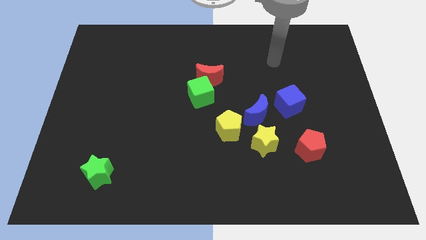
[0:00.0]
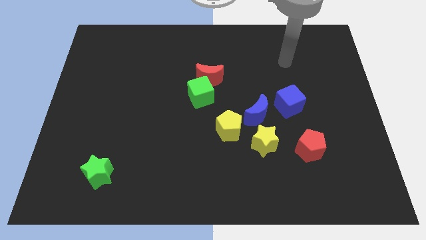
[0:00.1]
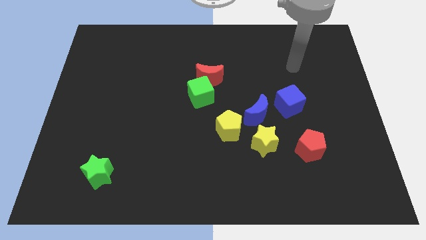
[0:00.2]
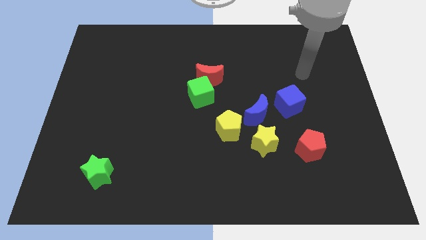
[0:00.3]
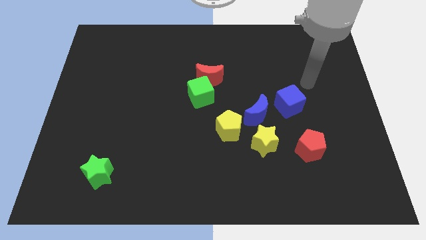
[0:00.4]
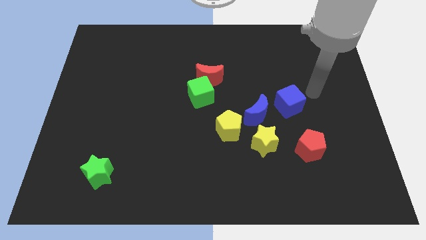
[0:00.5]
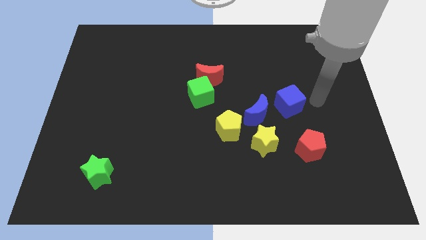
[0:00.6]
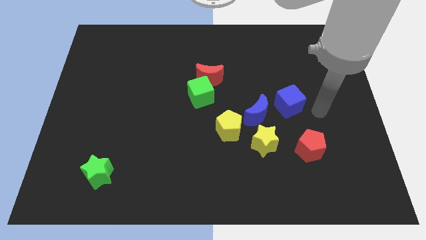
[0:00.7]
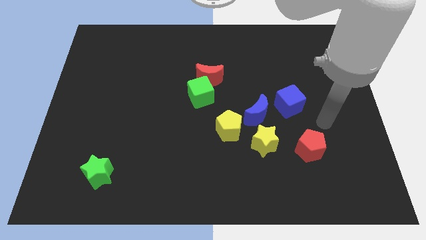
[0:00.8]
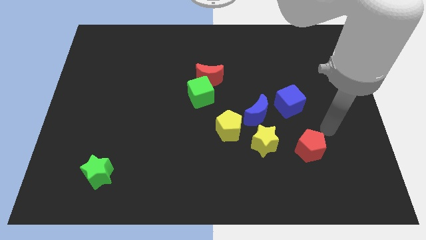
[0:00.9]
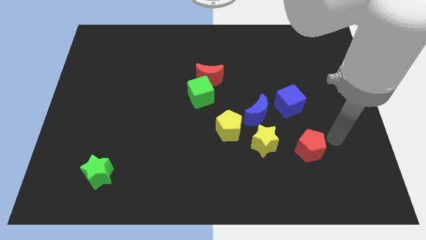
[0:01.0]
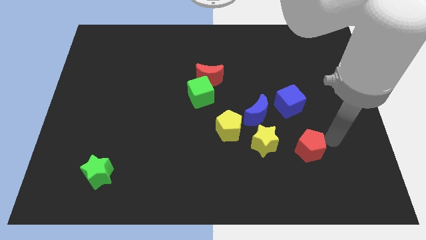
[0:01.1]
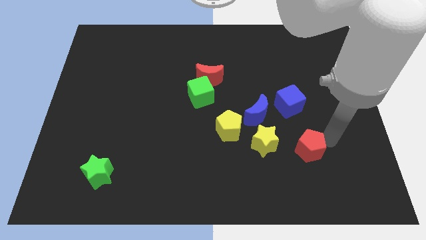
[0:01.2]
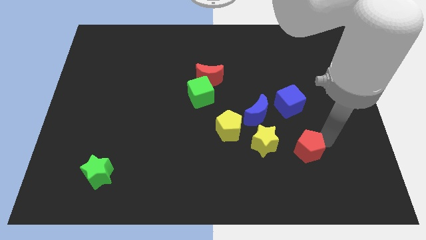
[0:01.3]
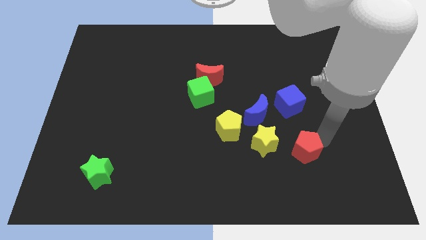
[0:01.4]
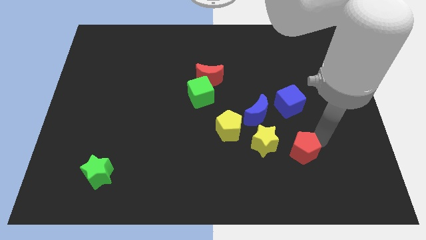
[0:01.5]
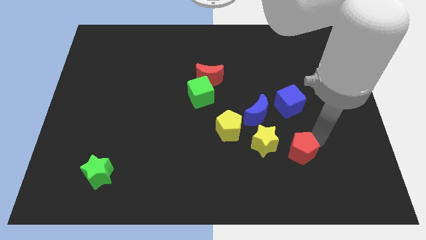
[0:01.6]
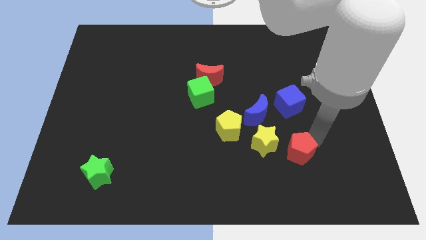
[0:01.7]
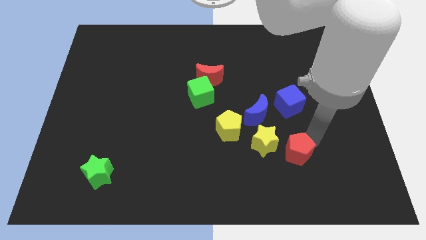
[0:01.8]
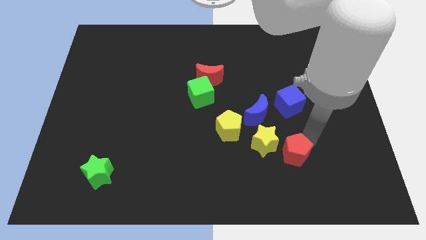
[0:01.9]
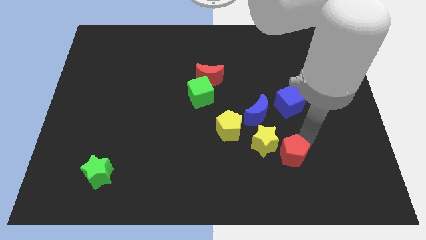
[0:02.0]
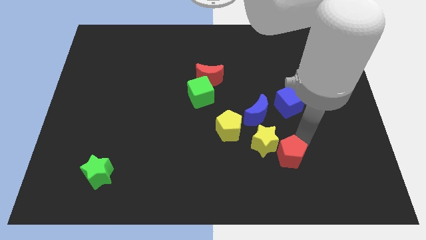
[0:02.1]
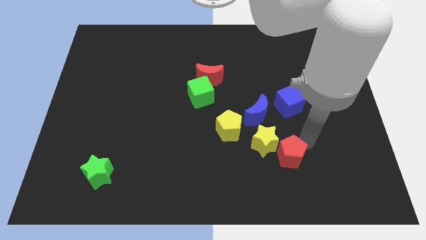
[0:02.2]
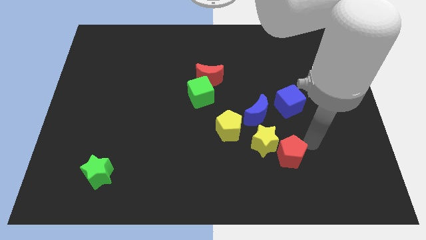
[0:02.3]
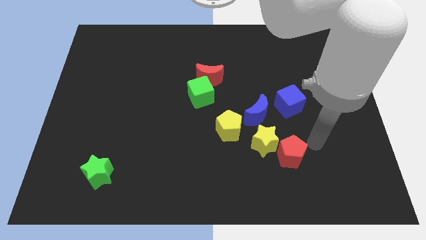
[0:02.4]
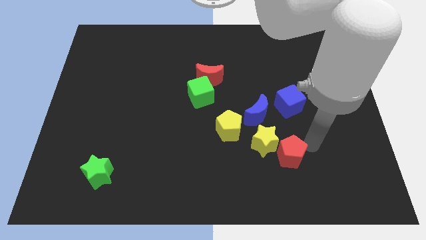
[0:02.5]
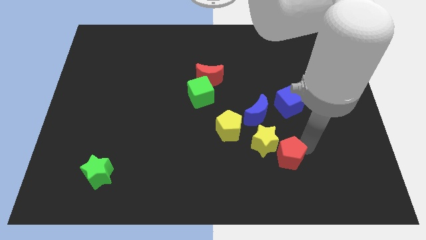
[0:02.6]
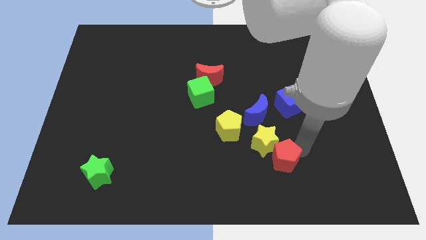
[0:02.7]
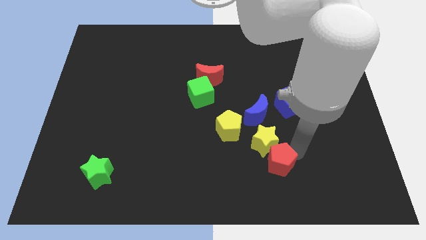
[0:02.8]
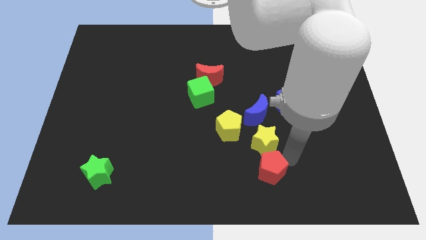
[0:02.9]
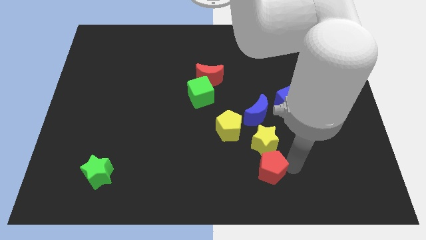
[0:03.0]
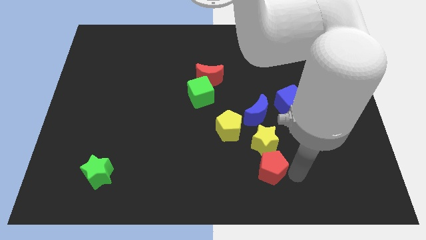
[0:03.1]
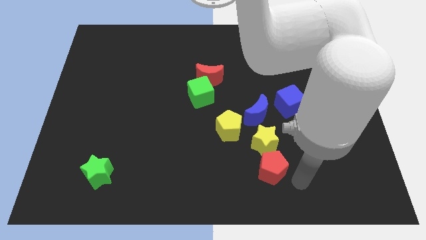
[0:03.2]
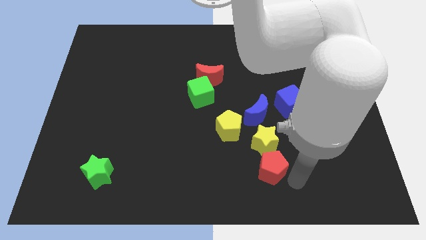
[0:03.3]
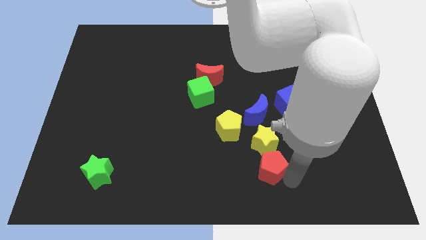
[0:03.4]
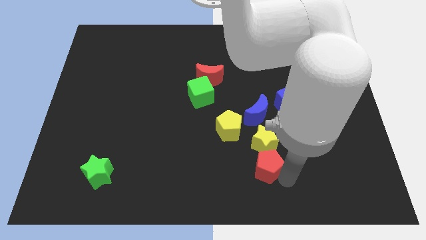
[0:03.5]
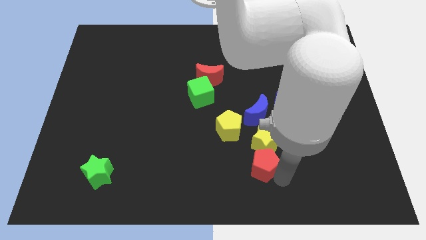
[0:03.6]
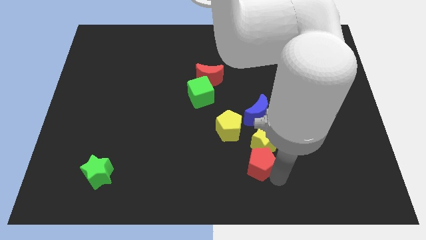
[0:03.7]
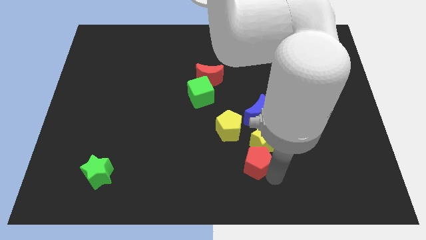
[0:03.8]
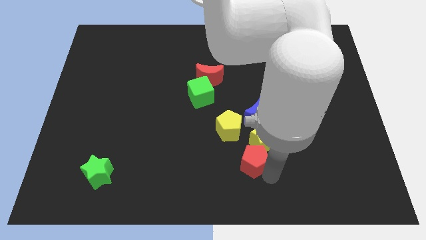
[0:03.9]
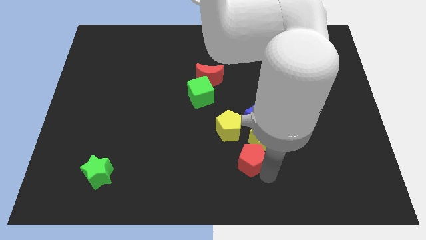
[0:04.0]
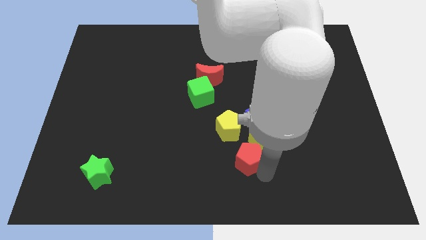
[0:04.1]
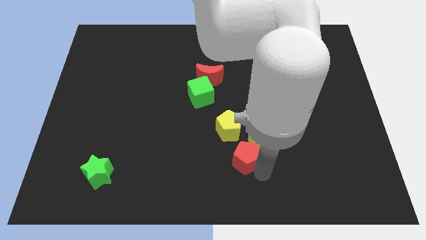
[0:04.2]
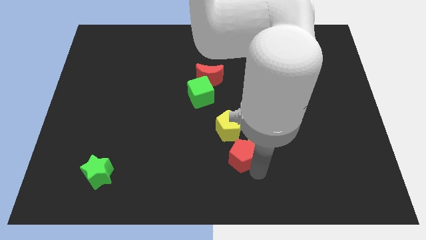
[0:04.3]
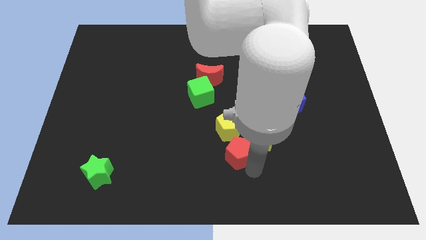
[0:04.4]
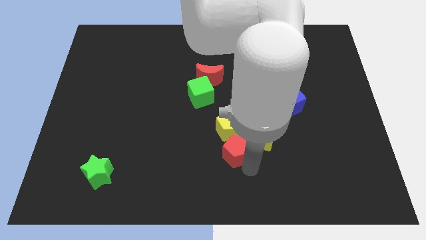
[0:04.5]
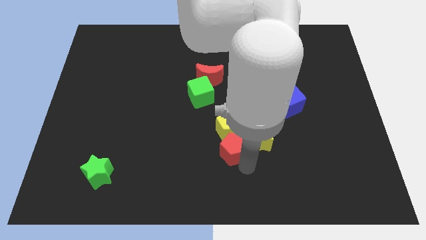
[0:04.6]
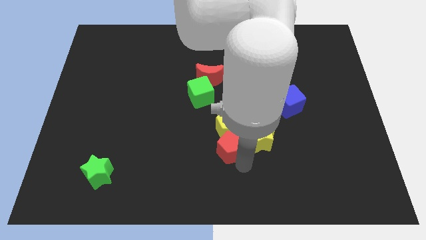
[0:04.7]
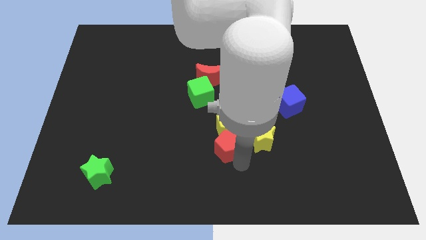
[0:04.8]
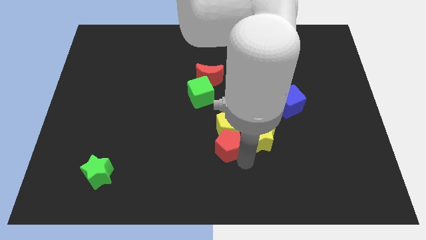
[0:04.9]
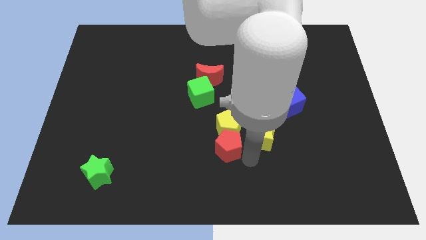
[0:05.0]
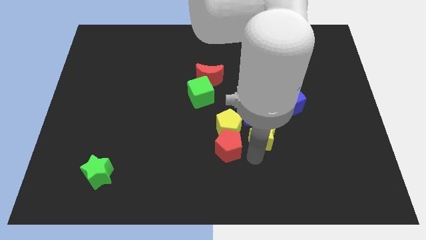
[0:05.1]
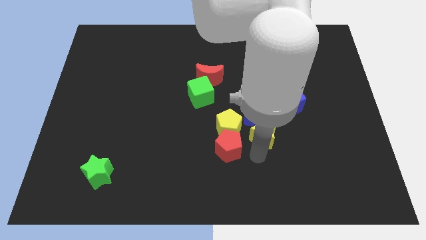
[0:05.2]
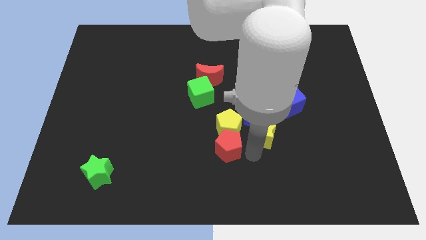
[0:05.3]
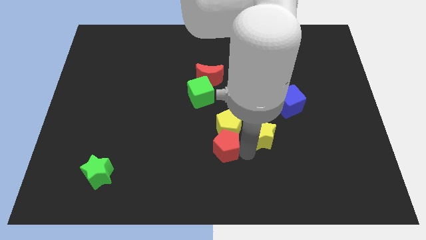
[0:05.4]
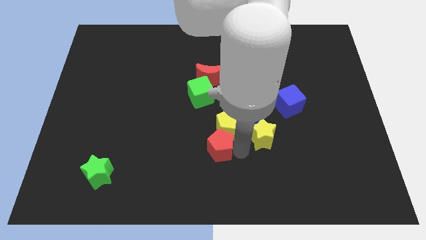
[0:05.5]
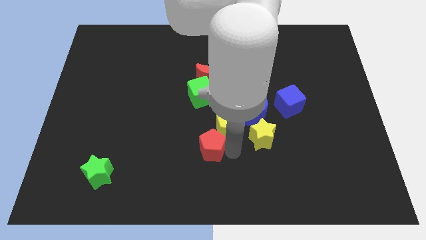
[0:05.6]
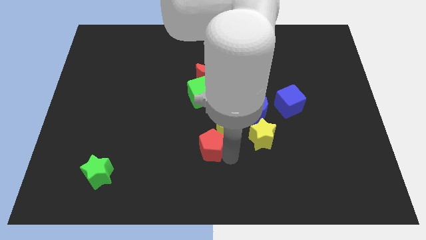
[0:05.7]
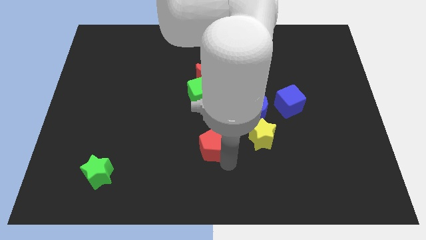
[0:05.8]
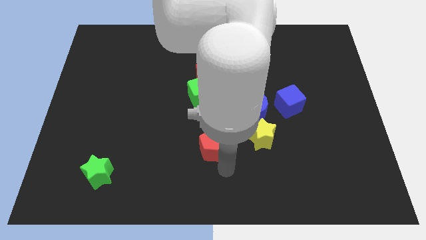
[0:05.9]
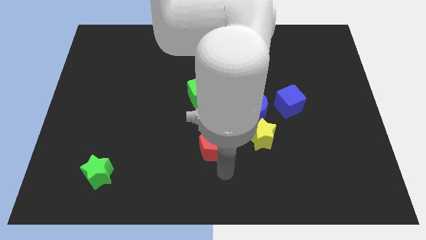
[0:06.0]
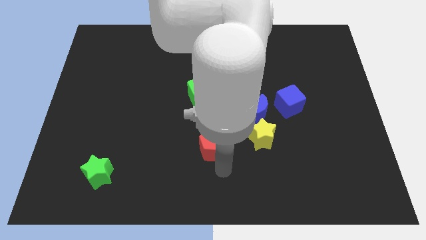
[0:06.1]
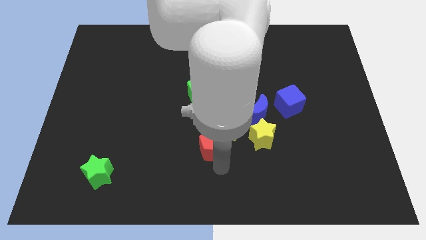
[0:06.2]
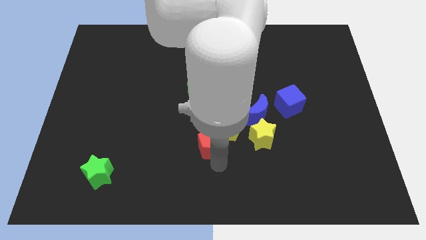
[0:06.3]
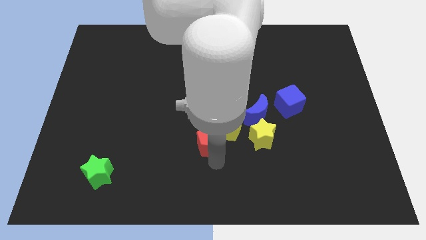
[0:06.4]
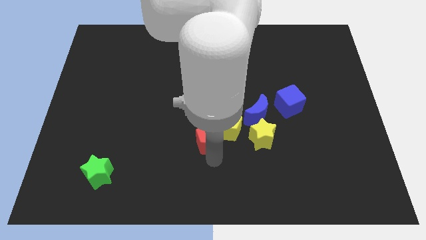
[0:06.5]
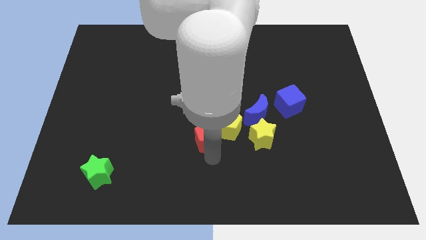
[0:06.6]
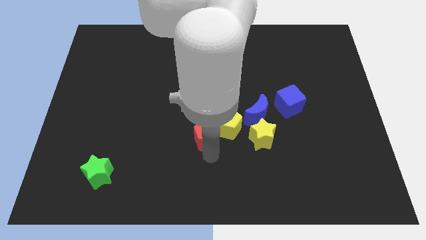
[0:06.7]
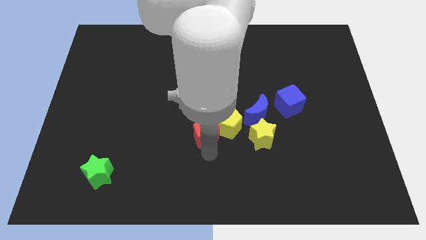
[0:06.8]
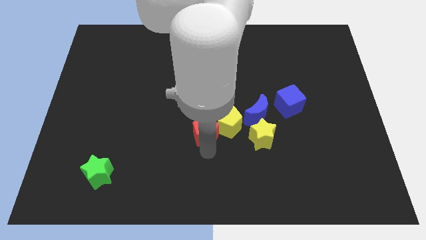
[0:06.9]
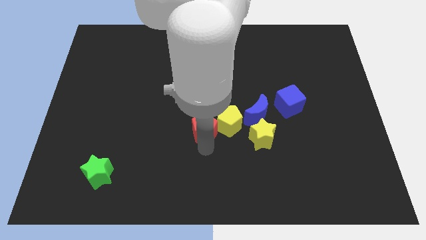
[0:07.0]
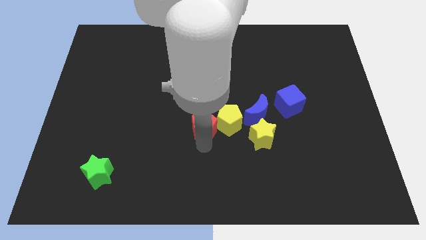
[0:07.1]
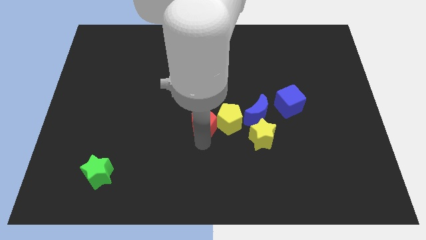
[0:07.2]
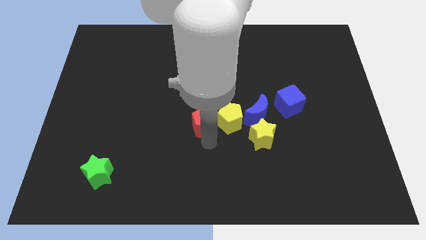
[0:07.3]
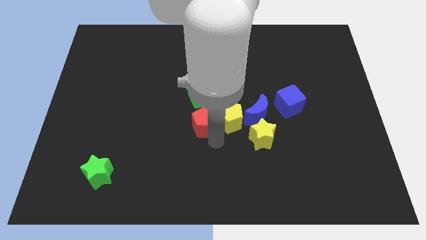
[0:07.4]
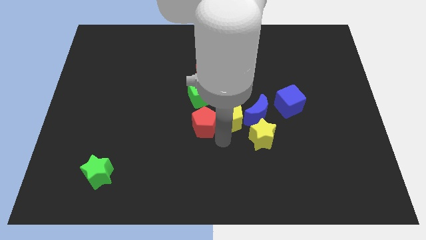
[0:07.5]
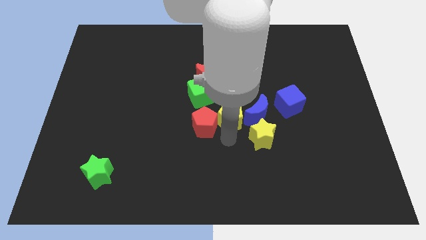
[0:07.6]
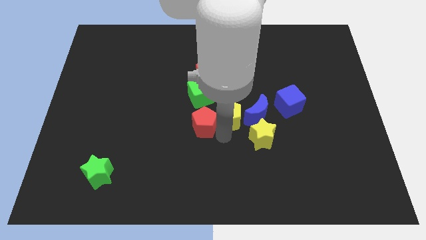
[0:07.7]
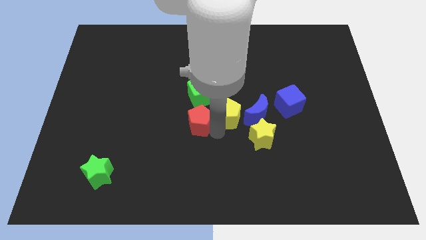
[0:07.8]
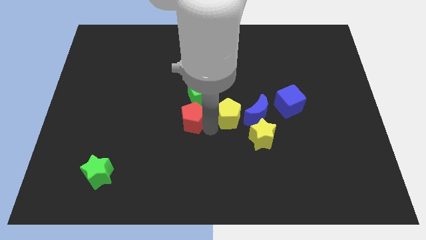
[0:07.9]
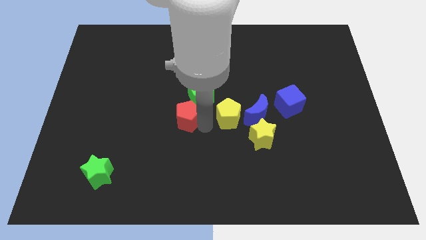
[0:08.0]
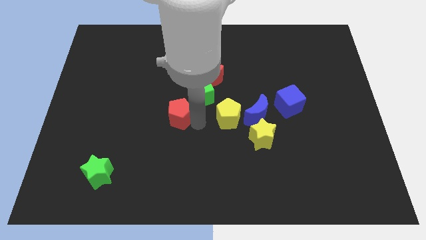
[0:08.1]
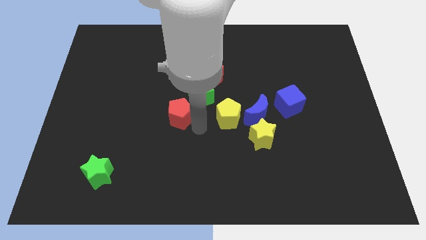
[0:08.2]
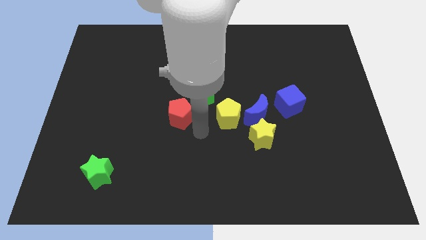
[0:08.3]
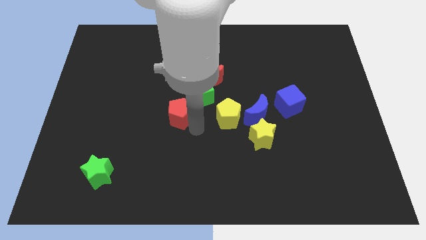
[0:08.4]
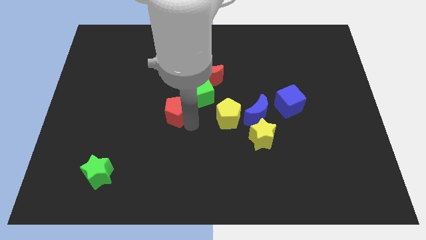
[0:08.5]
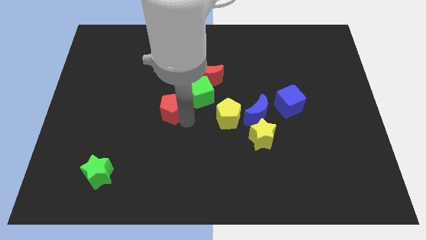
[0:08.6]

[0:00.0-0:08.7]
move the red pentagon to the left of the green cube
